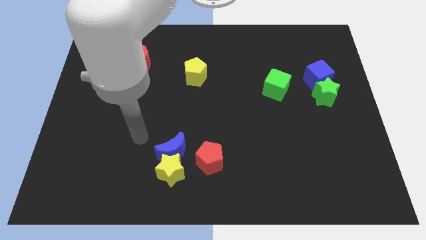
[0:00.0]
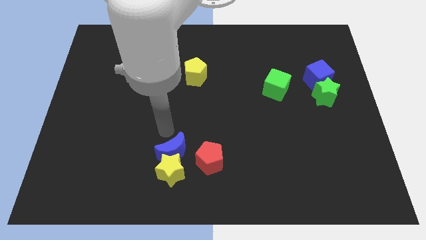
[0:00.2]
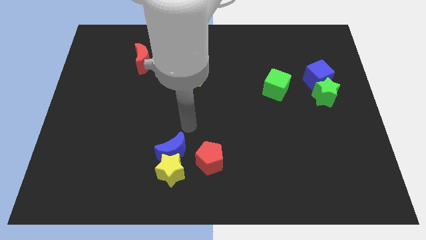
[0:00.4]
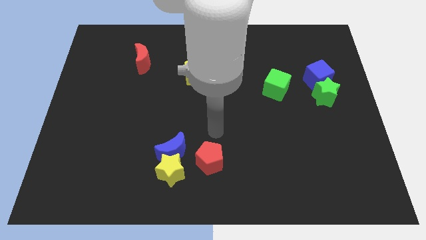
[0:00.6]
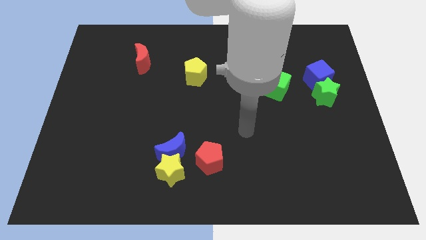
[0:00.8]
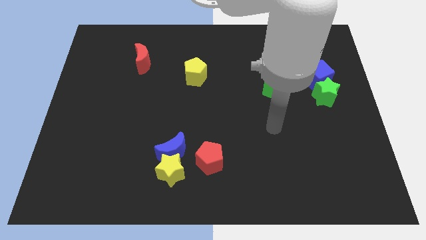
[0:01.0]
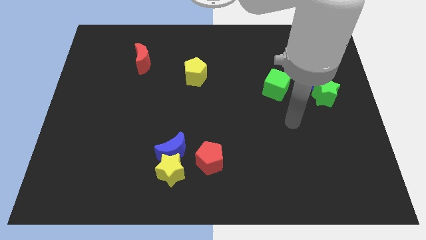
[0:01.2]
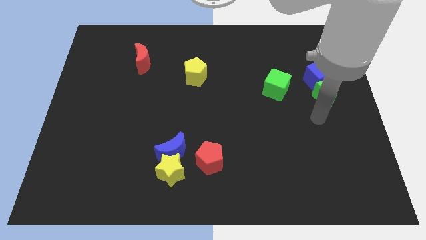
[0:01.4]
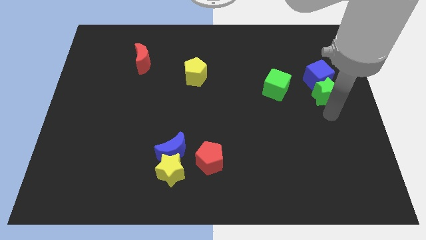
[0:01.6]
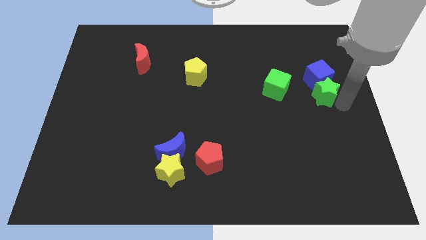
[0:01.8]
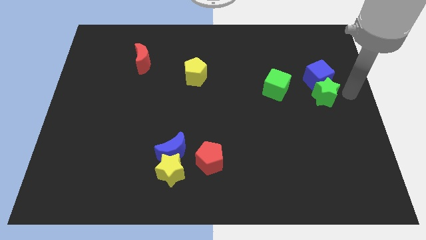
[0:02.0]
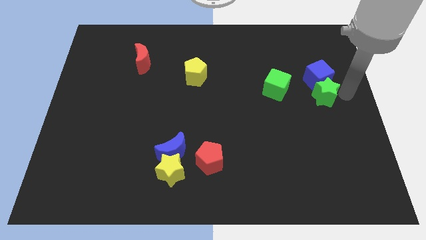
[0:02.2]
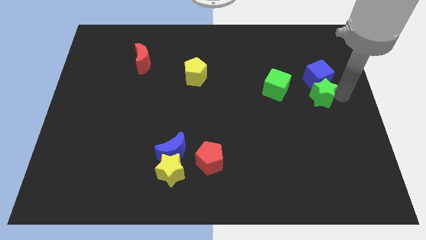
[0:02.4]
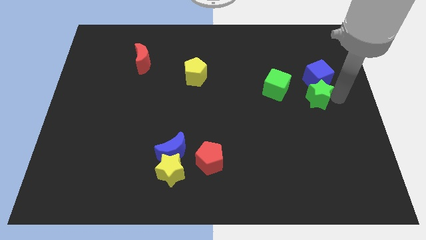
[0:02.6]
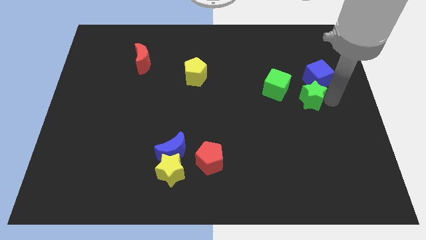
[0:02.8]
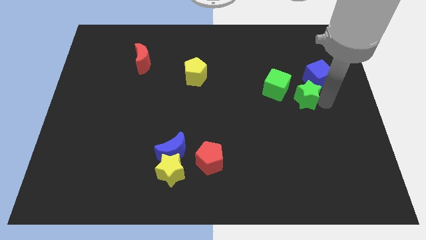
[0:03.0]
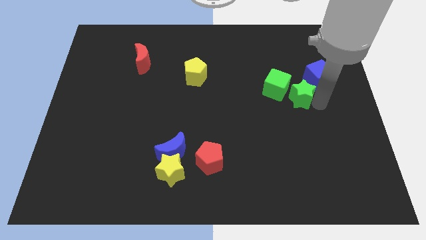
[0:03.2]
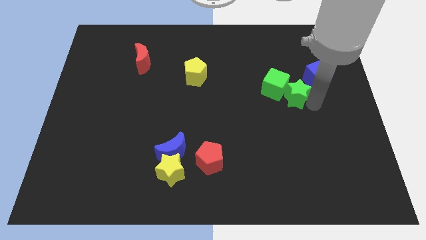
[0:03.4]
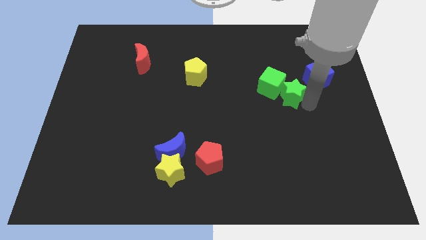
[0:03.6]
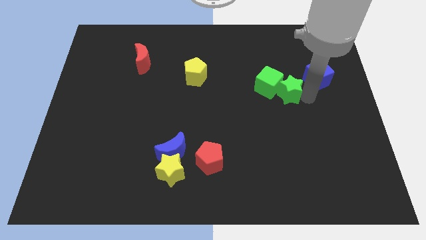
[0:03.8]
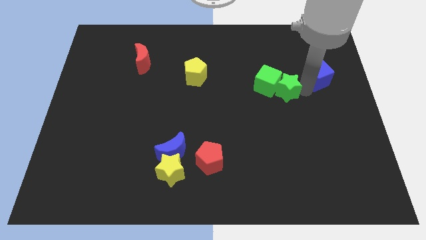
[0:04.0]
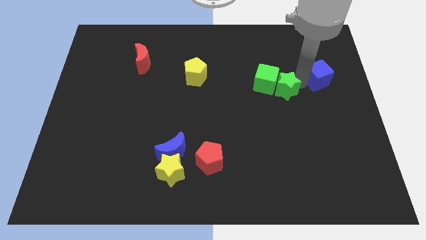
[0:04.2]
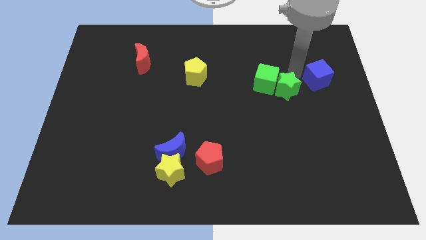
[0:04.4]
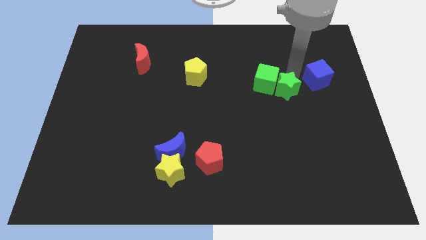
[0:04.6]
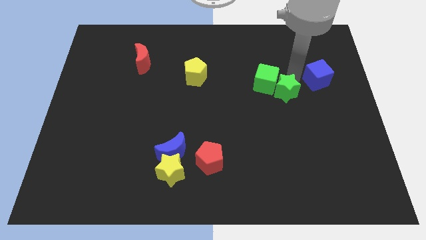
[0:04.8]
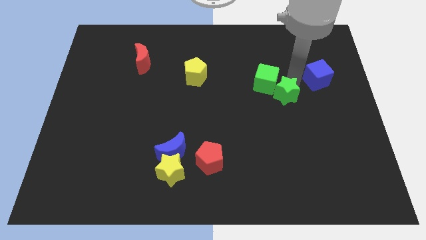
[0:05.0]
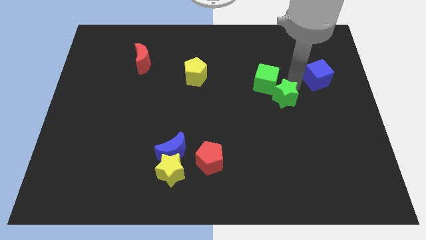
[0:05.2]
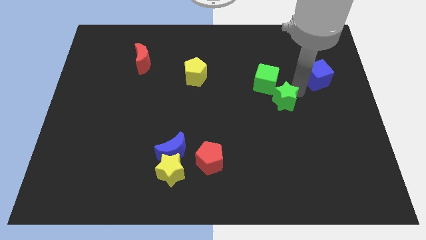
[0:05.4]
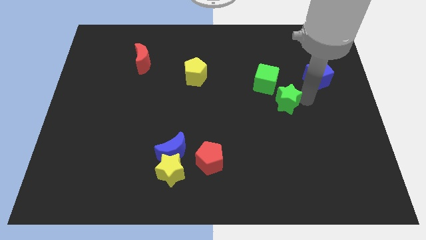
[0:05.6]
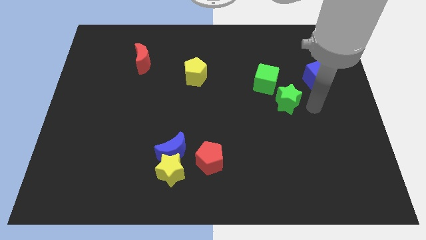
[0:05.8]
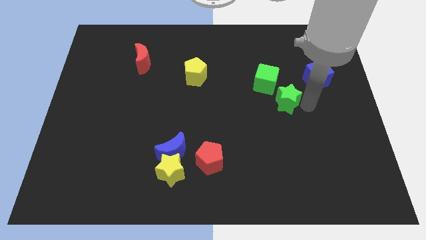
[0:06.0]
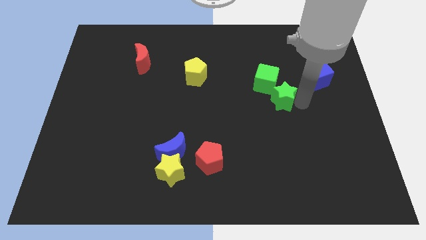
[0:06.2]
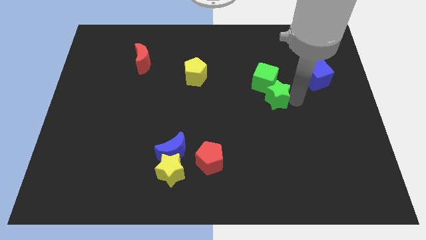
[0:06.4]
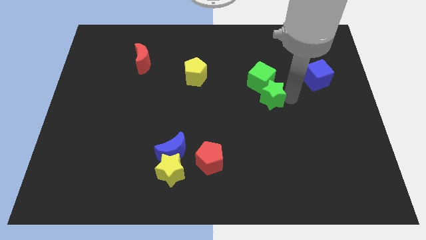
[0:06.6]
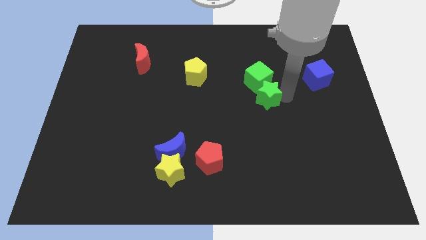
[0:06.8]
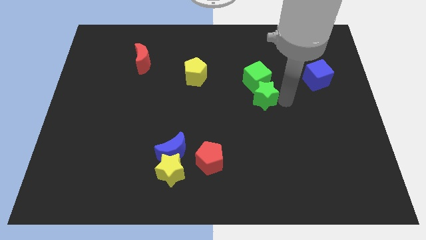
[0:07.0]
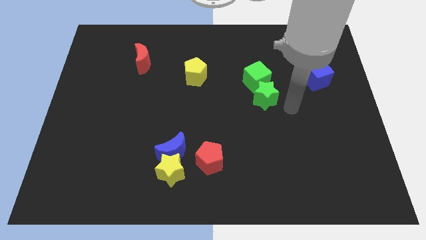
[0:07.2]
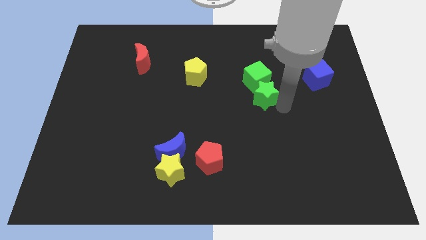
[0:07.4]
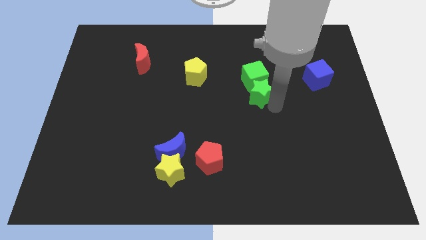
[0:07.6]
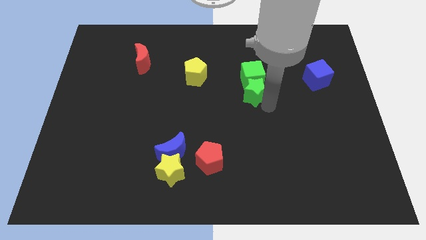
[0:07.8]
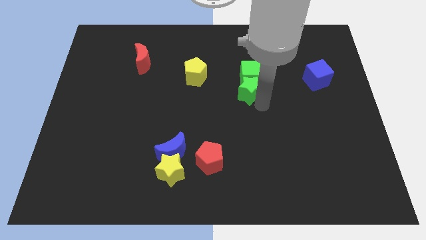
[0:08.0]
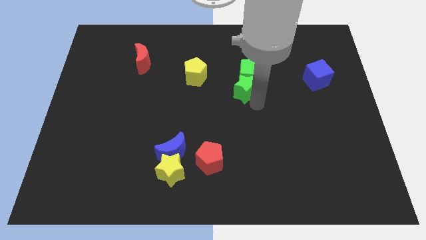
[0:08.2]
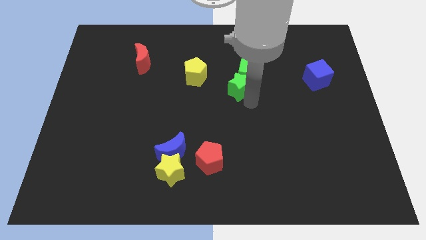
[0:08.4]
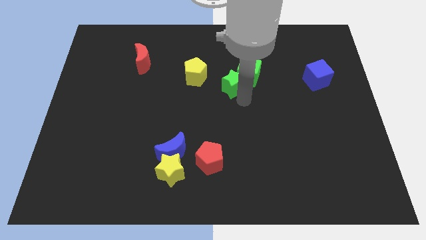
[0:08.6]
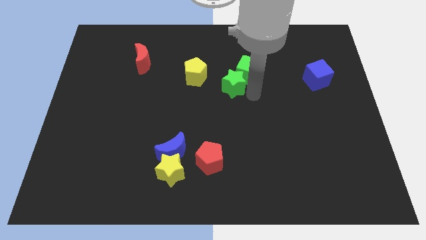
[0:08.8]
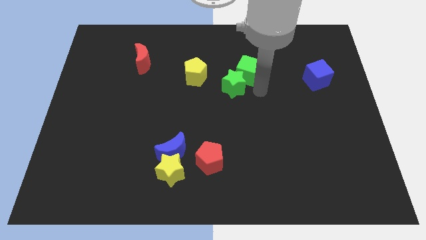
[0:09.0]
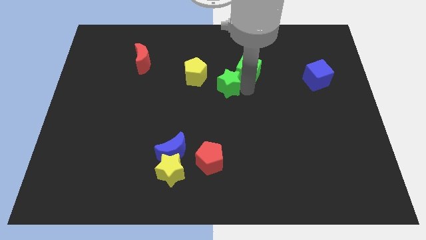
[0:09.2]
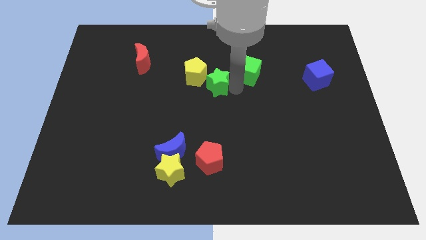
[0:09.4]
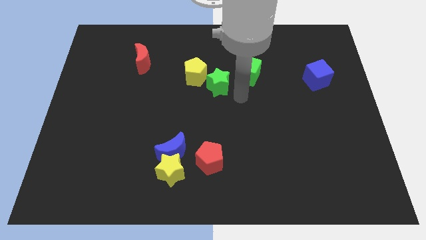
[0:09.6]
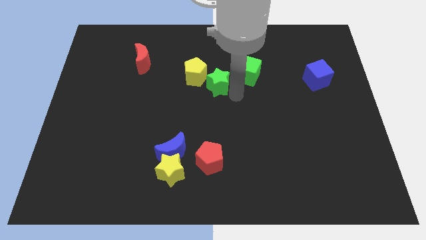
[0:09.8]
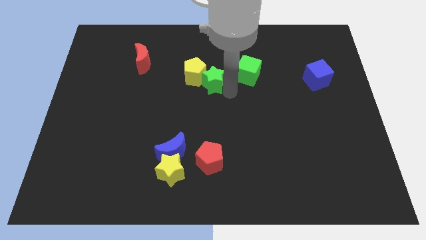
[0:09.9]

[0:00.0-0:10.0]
put the green star to the yellow pentagon

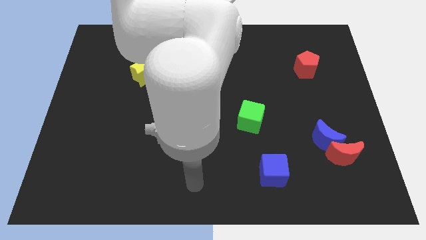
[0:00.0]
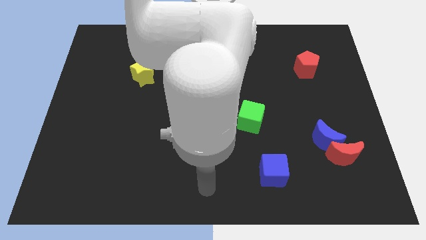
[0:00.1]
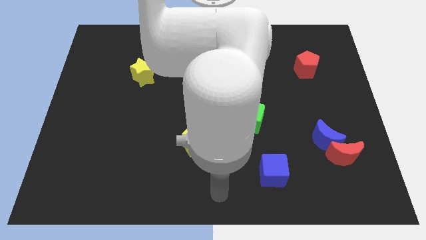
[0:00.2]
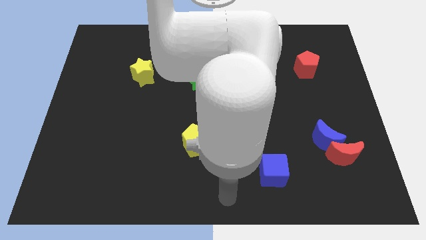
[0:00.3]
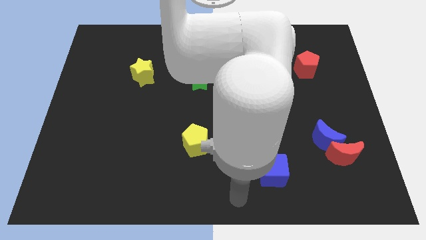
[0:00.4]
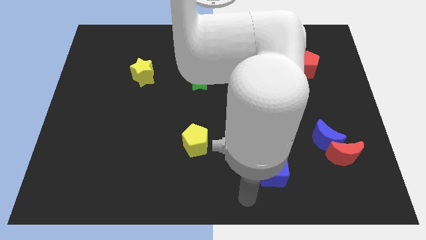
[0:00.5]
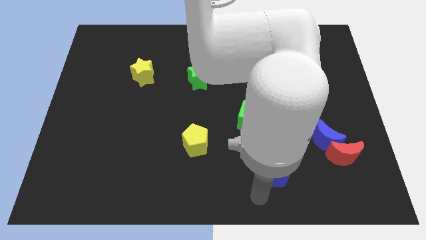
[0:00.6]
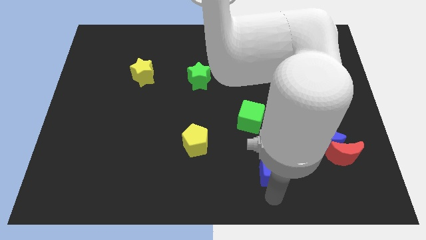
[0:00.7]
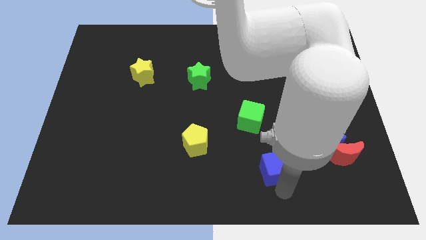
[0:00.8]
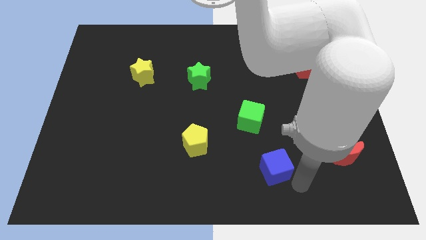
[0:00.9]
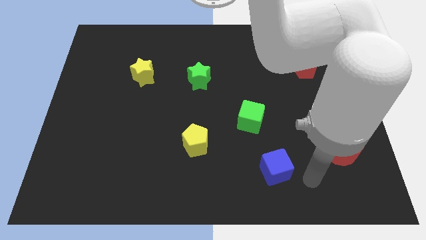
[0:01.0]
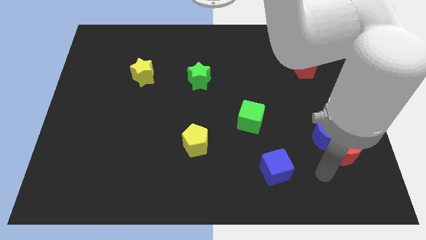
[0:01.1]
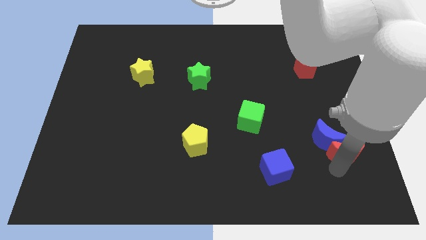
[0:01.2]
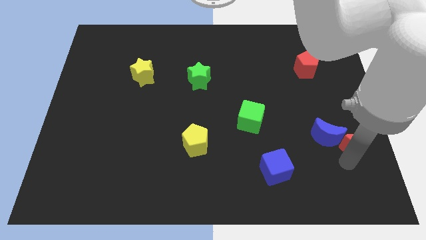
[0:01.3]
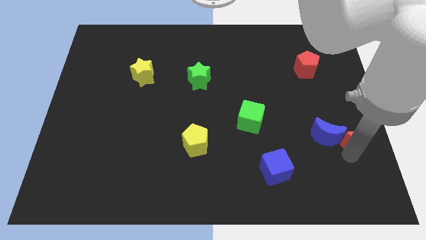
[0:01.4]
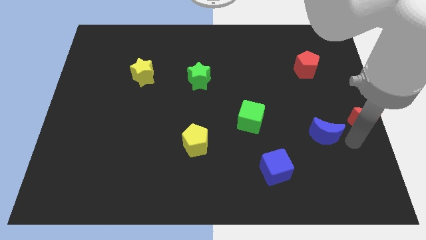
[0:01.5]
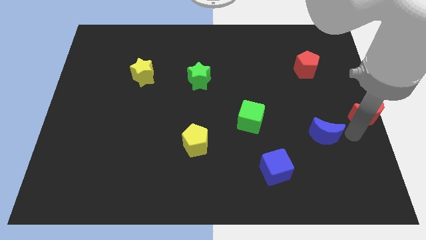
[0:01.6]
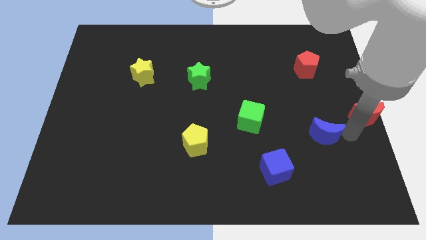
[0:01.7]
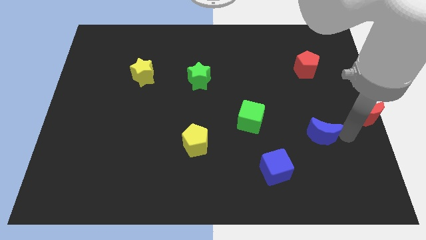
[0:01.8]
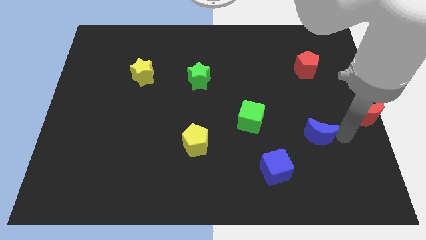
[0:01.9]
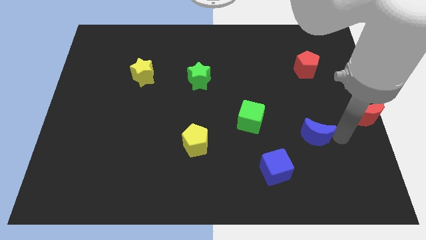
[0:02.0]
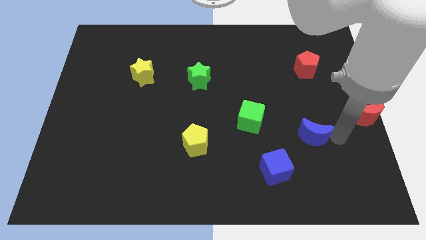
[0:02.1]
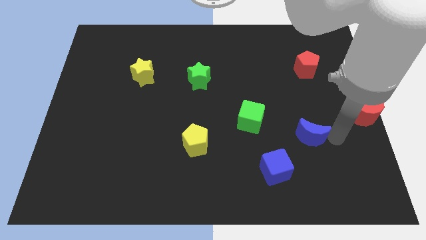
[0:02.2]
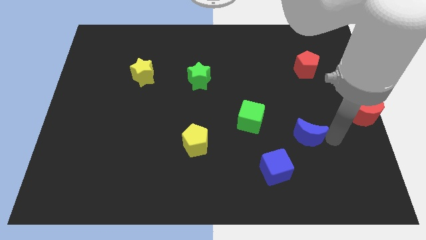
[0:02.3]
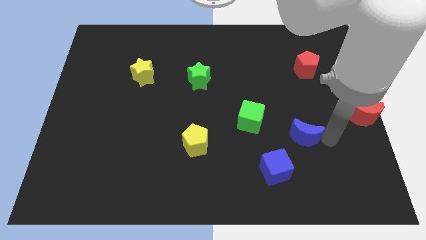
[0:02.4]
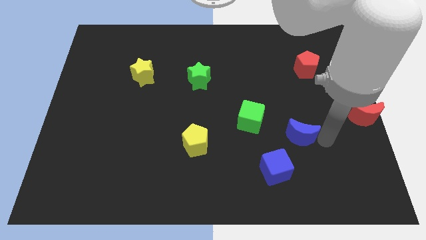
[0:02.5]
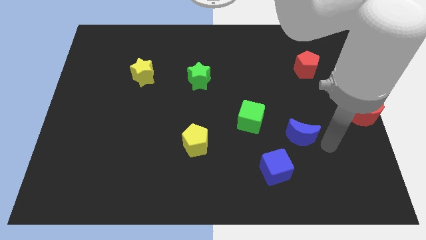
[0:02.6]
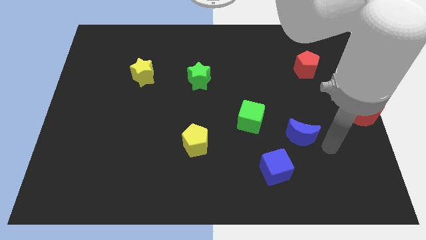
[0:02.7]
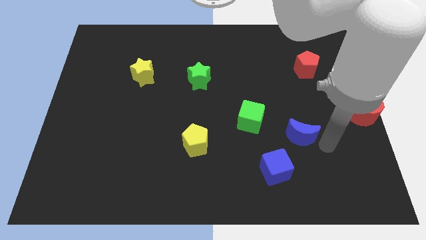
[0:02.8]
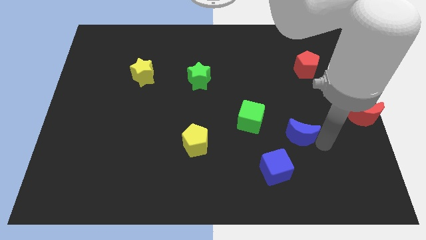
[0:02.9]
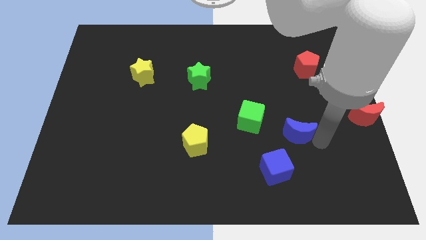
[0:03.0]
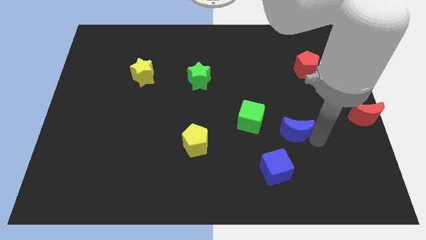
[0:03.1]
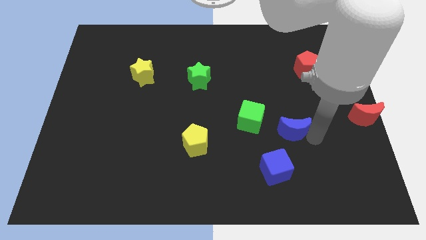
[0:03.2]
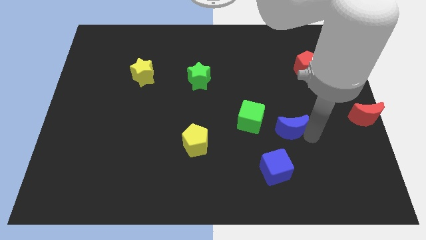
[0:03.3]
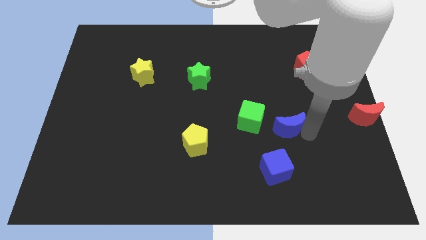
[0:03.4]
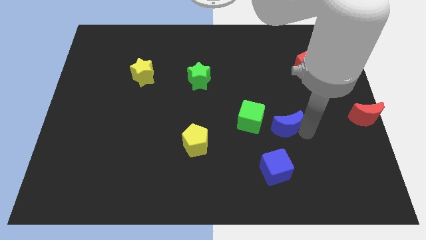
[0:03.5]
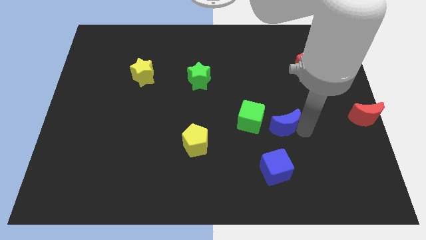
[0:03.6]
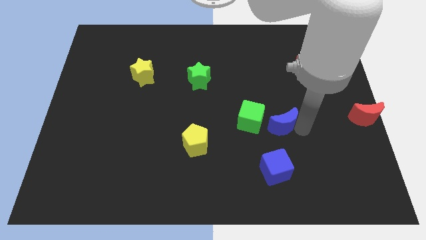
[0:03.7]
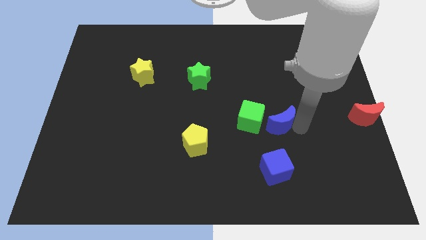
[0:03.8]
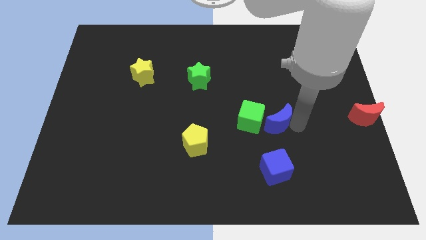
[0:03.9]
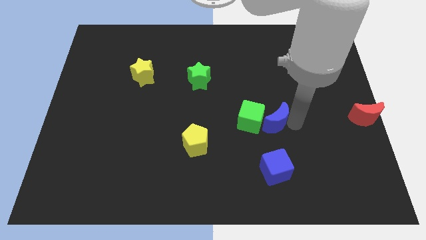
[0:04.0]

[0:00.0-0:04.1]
put the blue moon next to the green cube
